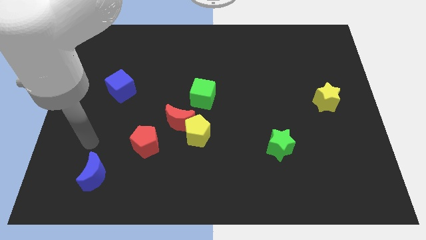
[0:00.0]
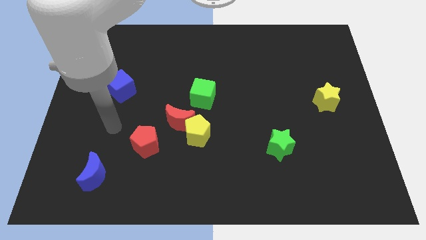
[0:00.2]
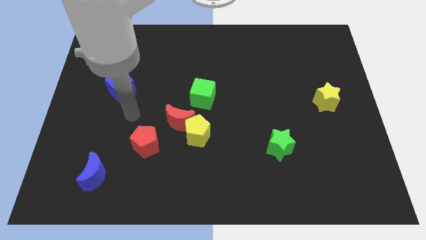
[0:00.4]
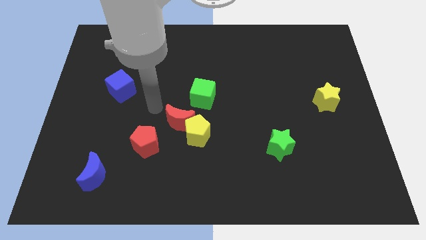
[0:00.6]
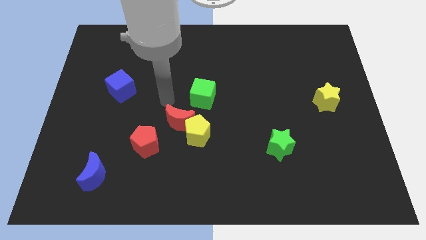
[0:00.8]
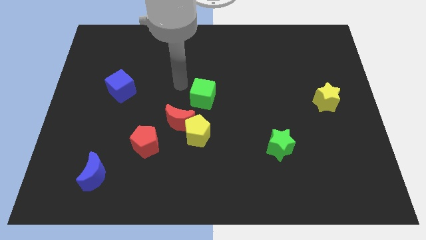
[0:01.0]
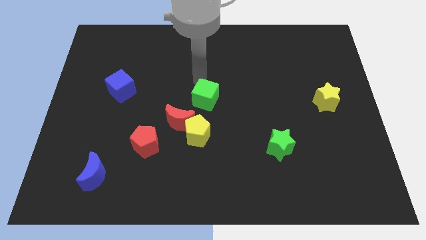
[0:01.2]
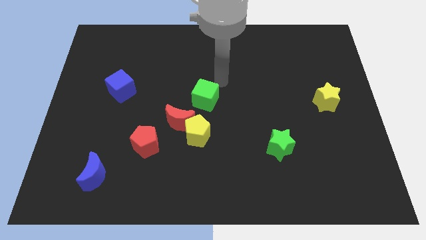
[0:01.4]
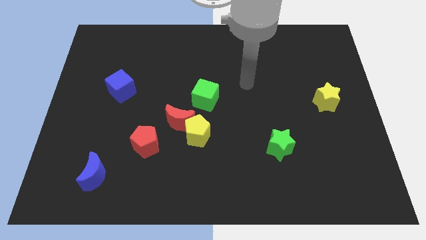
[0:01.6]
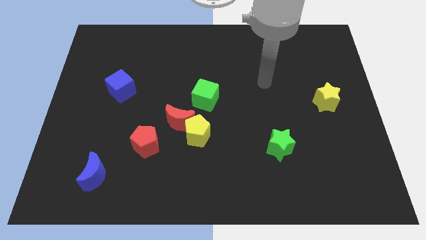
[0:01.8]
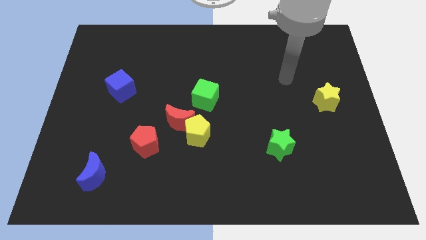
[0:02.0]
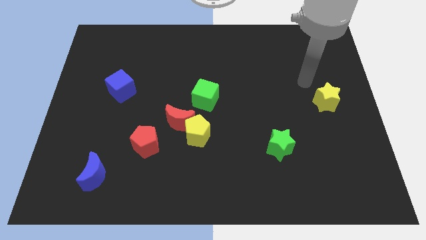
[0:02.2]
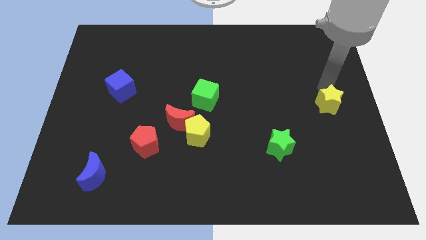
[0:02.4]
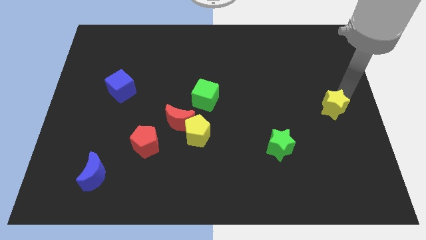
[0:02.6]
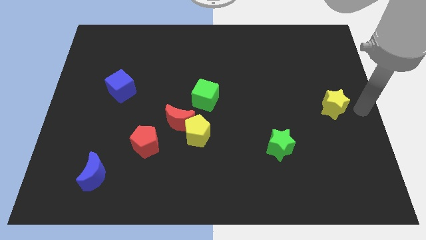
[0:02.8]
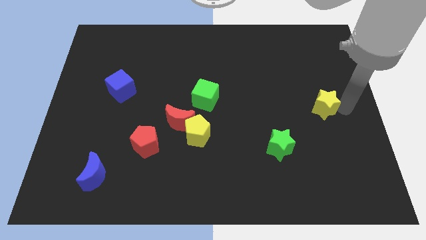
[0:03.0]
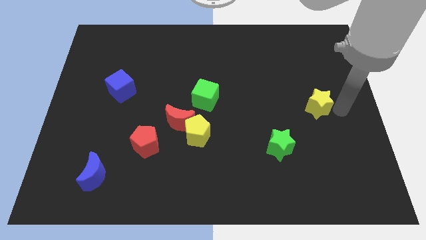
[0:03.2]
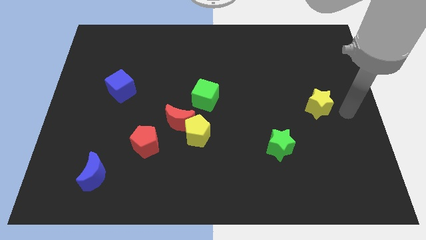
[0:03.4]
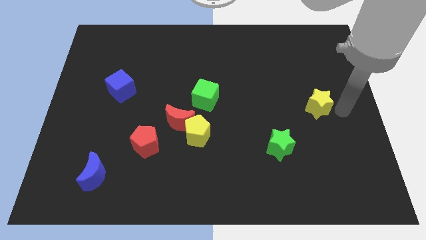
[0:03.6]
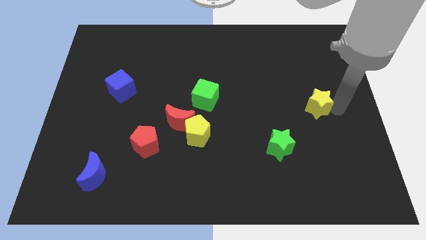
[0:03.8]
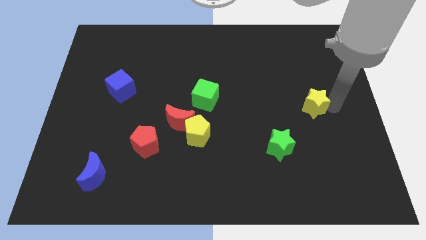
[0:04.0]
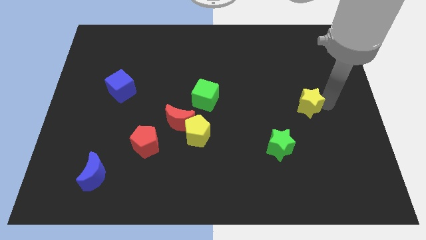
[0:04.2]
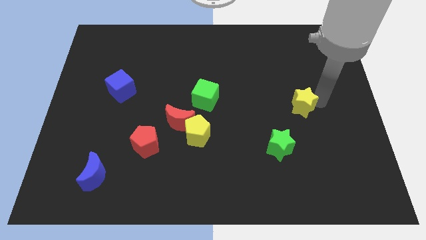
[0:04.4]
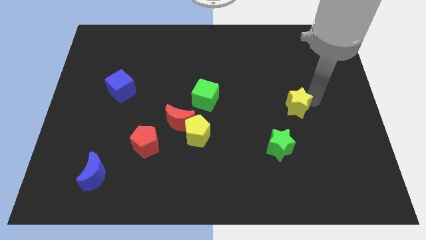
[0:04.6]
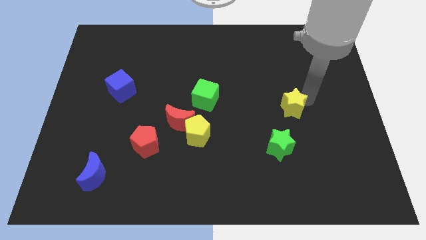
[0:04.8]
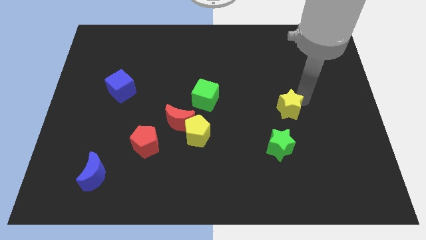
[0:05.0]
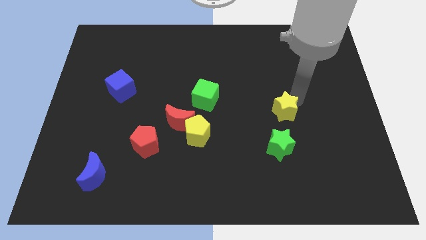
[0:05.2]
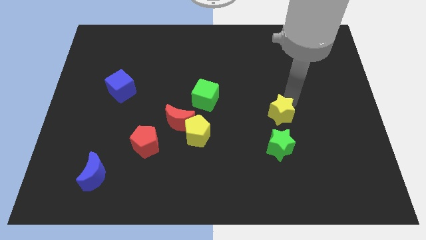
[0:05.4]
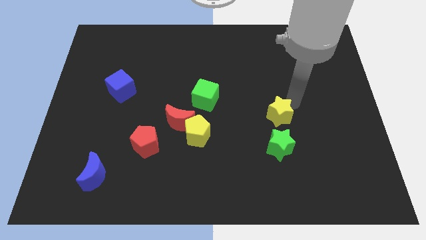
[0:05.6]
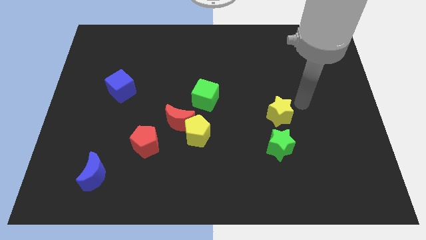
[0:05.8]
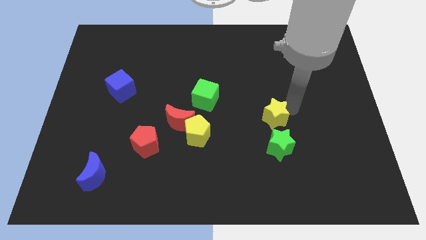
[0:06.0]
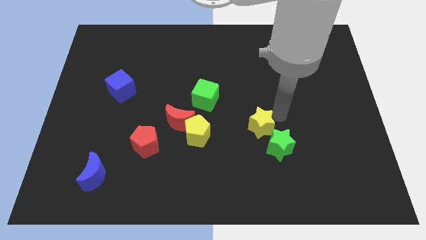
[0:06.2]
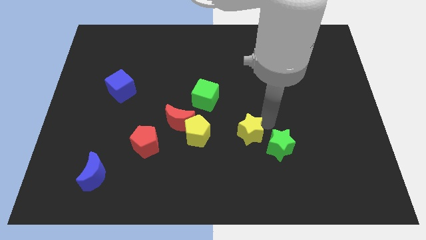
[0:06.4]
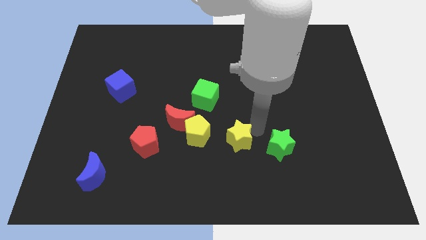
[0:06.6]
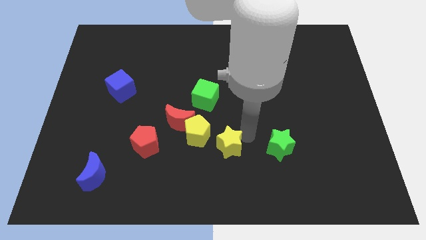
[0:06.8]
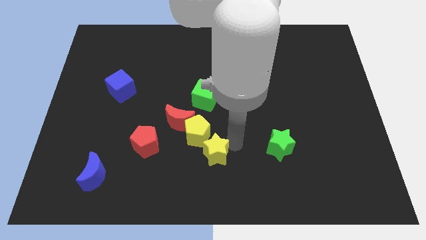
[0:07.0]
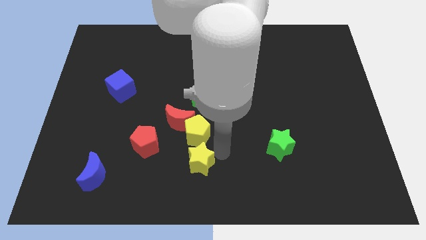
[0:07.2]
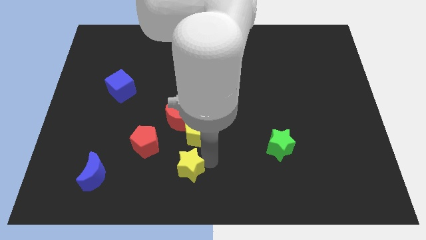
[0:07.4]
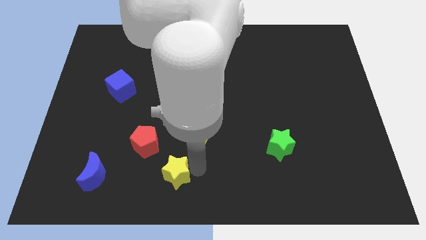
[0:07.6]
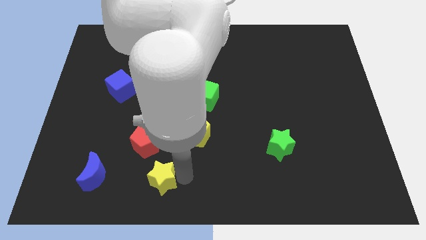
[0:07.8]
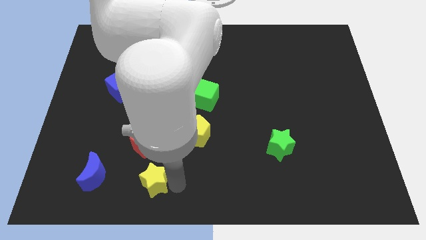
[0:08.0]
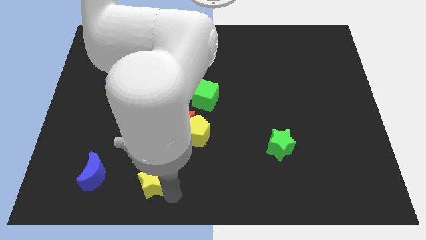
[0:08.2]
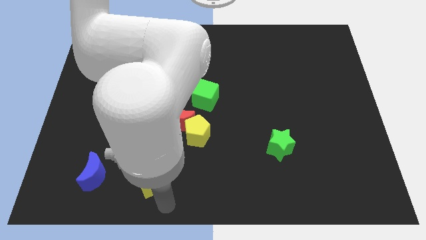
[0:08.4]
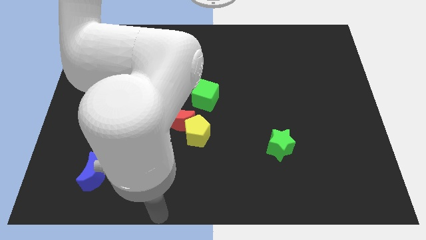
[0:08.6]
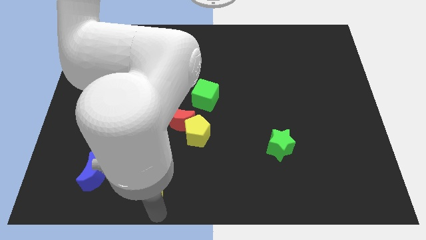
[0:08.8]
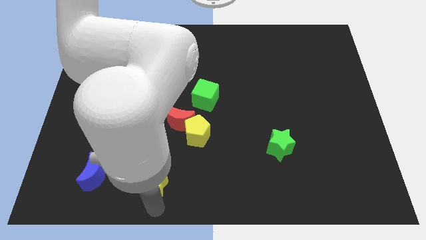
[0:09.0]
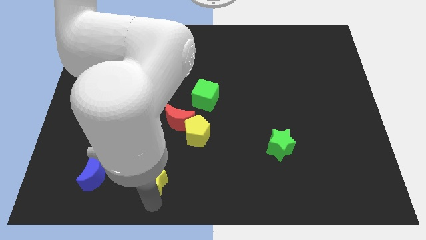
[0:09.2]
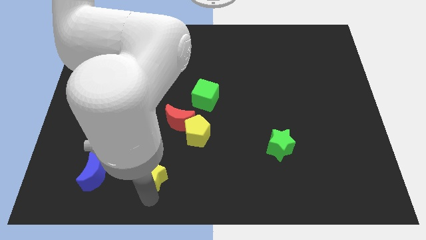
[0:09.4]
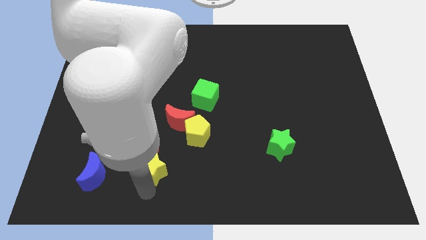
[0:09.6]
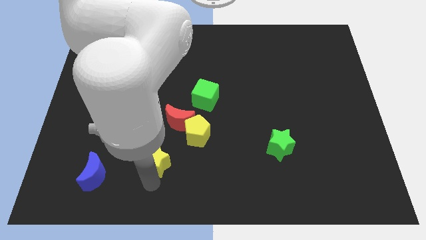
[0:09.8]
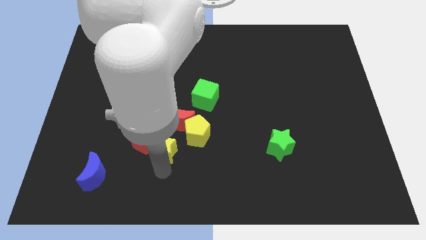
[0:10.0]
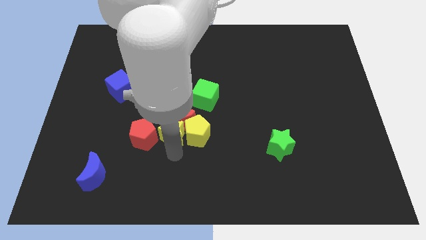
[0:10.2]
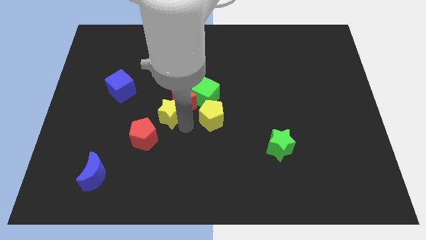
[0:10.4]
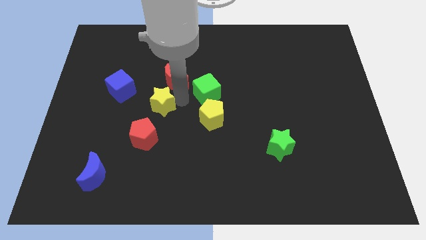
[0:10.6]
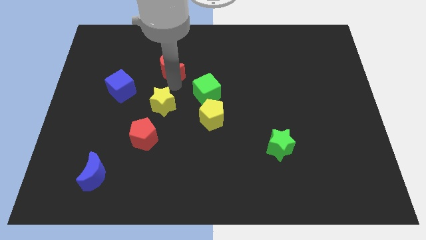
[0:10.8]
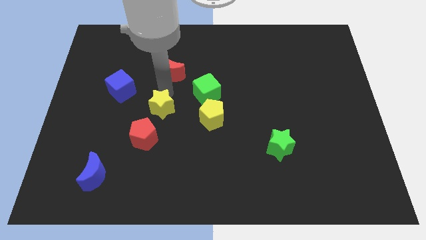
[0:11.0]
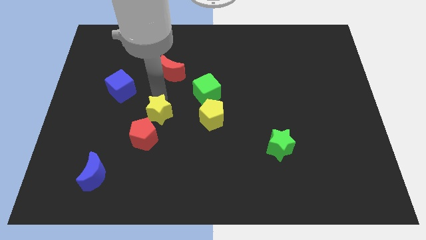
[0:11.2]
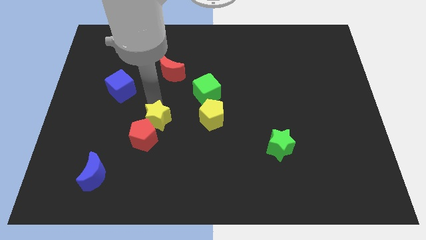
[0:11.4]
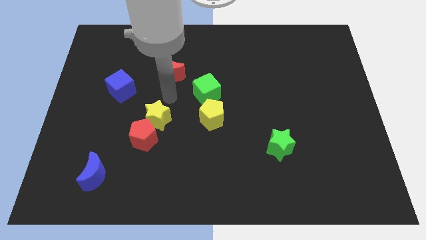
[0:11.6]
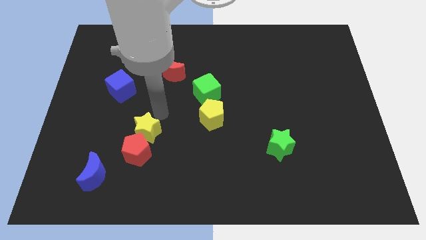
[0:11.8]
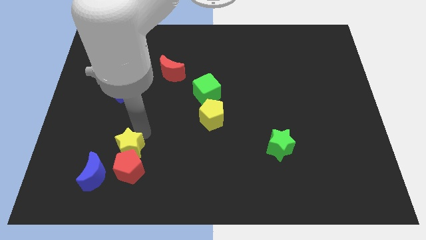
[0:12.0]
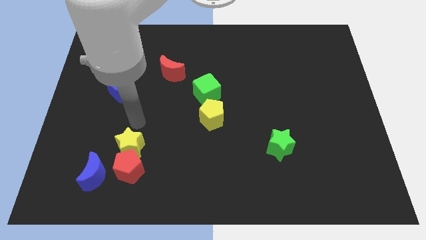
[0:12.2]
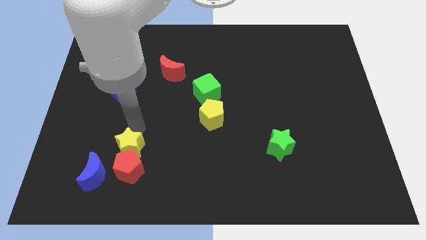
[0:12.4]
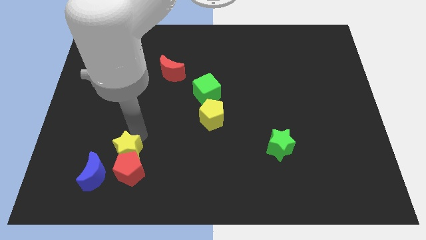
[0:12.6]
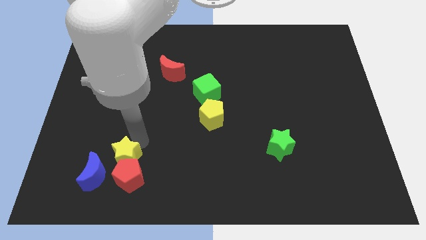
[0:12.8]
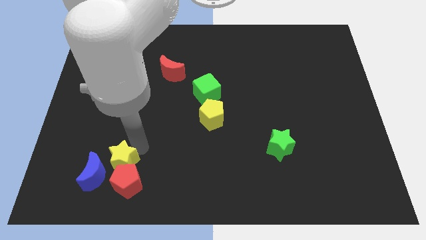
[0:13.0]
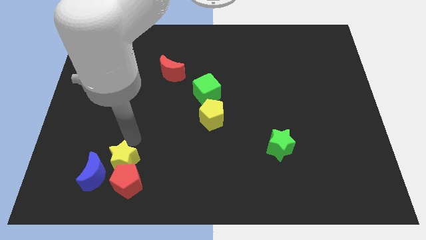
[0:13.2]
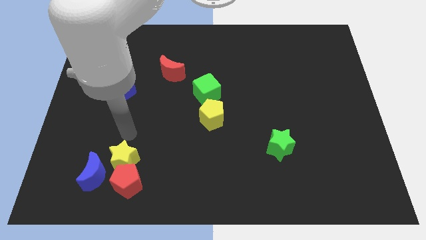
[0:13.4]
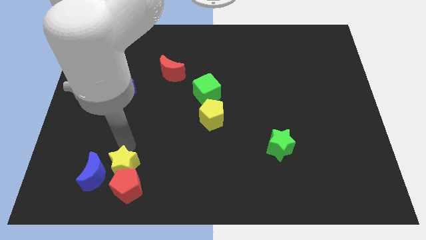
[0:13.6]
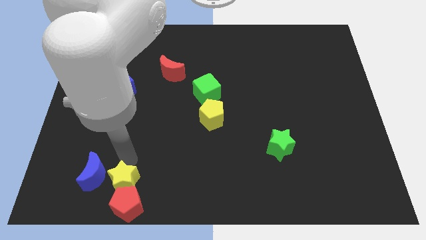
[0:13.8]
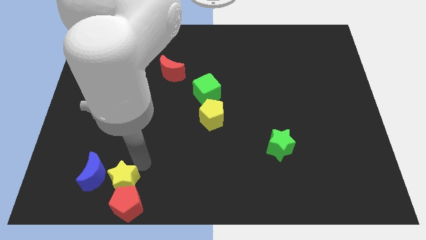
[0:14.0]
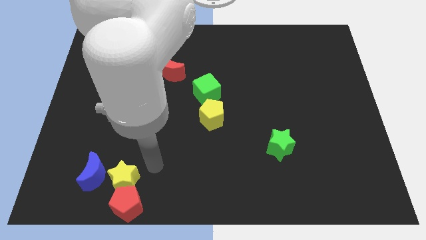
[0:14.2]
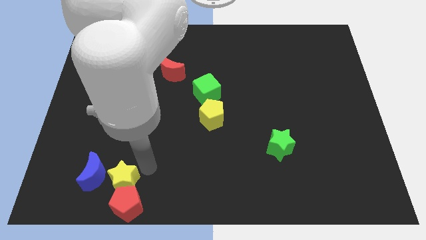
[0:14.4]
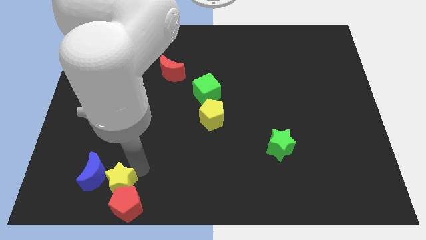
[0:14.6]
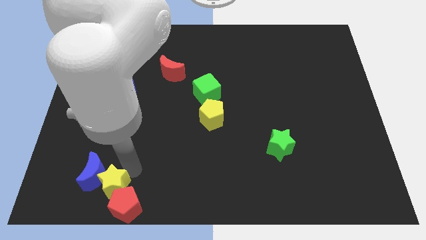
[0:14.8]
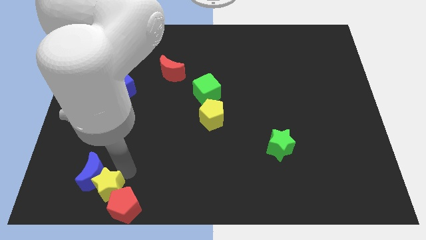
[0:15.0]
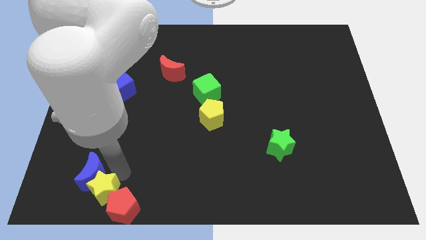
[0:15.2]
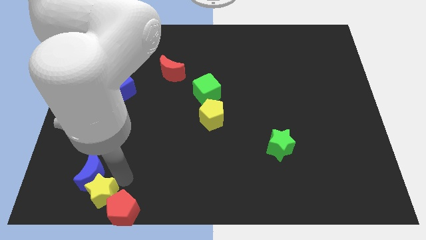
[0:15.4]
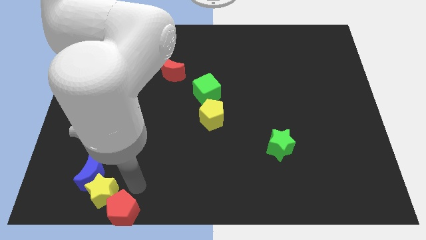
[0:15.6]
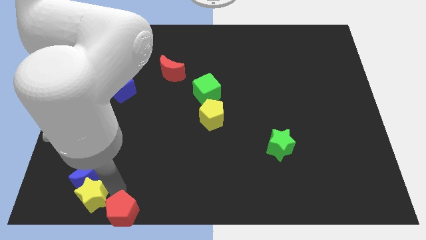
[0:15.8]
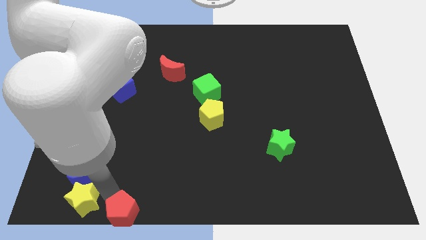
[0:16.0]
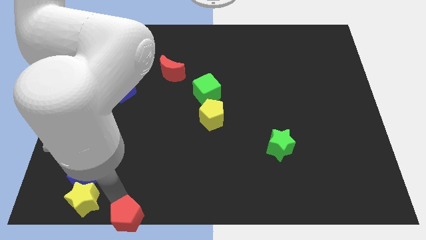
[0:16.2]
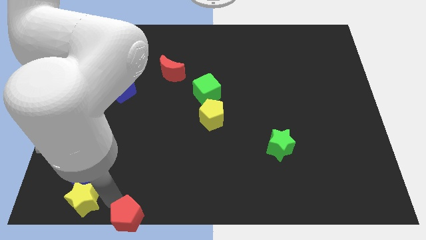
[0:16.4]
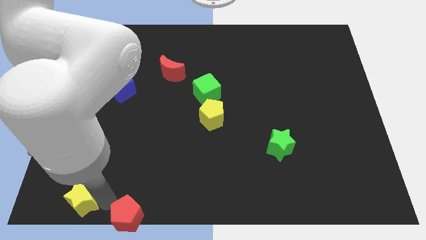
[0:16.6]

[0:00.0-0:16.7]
put the yellow star to the bottom left corner
